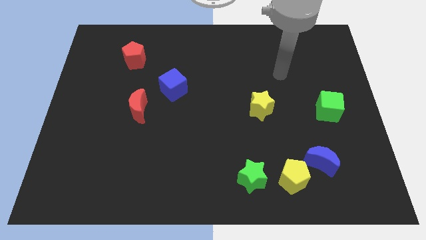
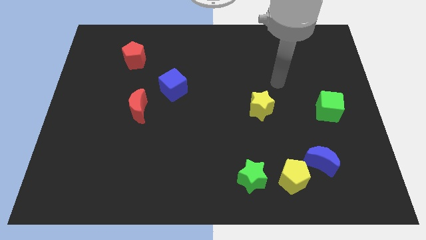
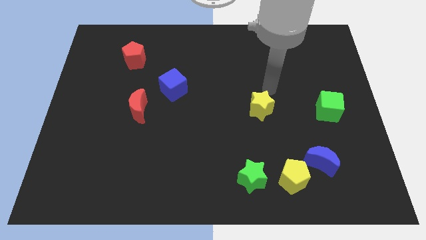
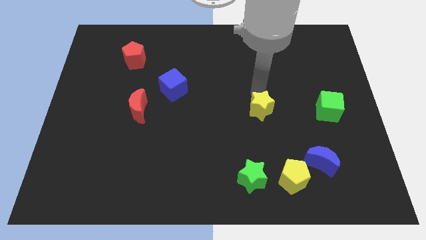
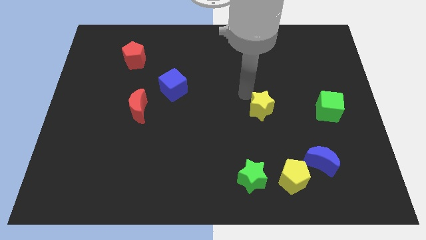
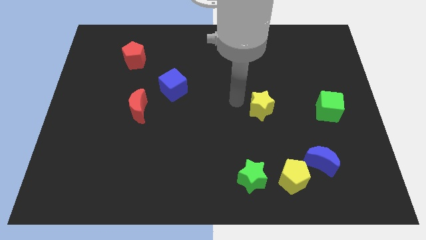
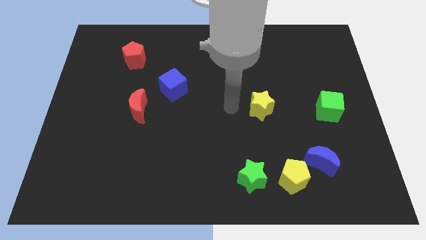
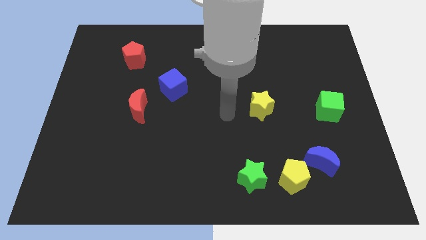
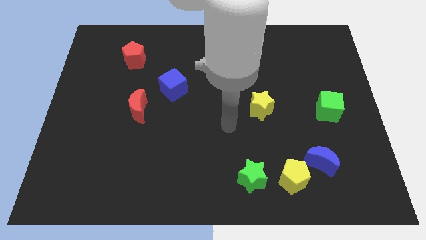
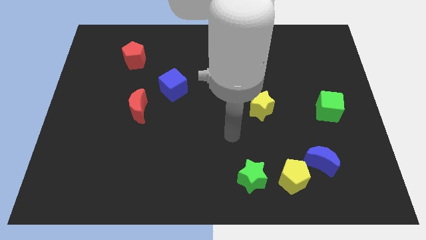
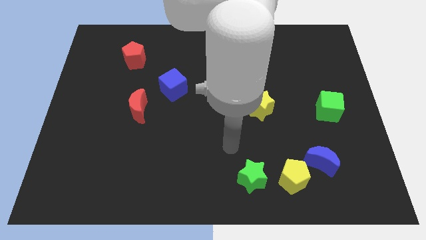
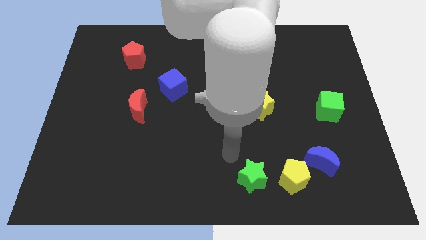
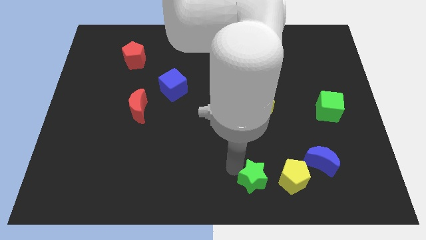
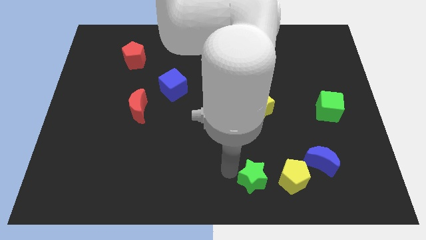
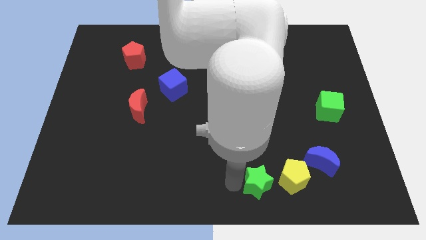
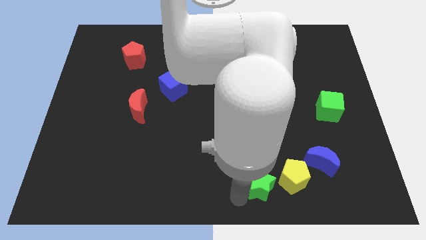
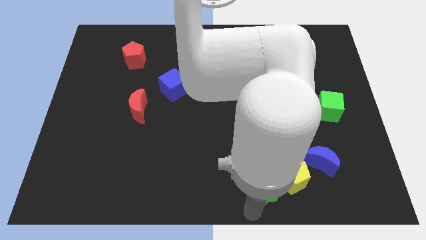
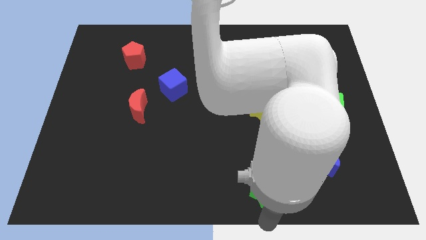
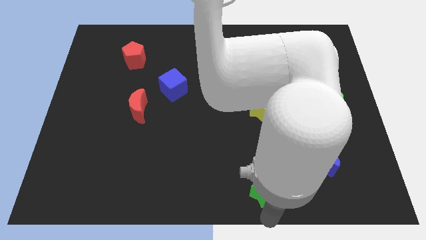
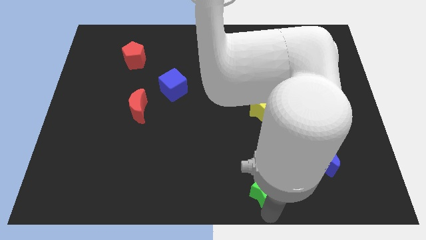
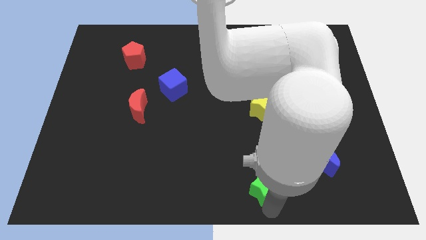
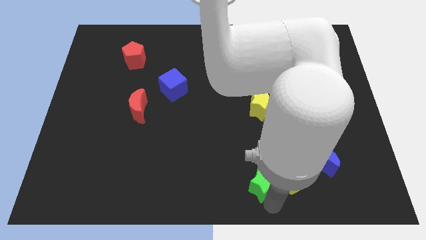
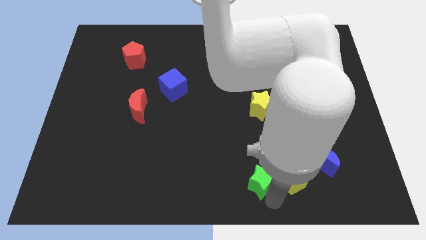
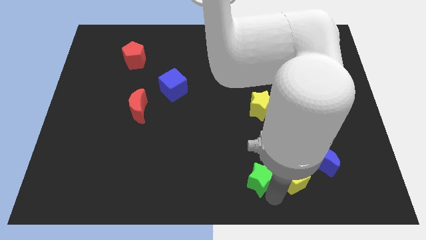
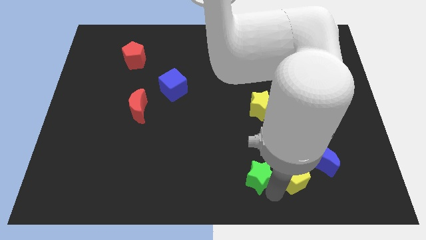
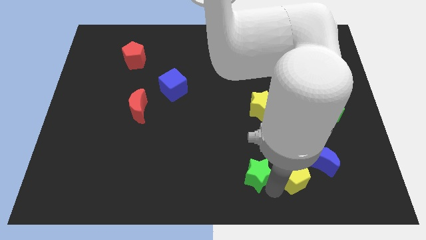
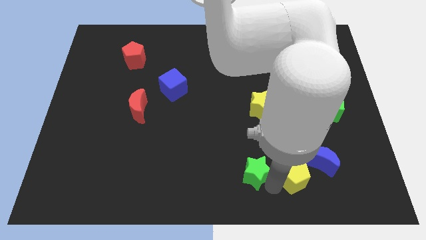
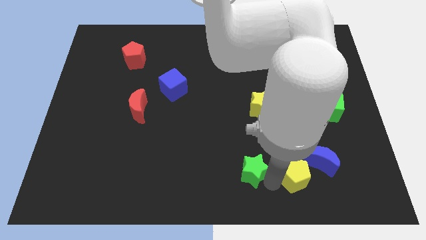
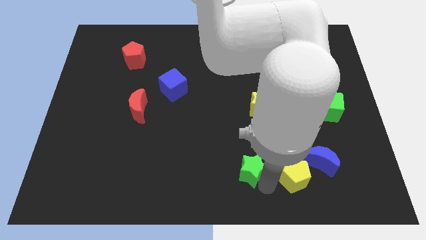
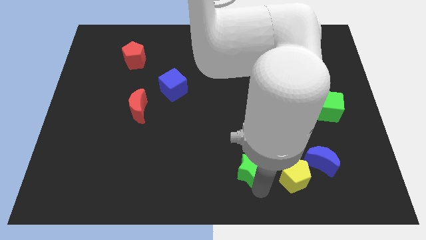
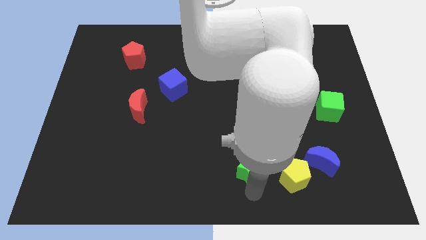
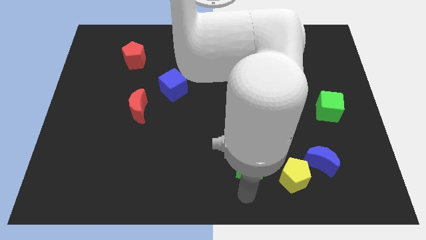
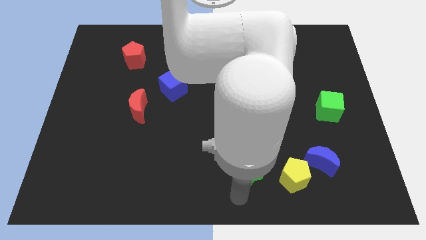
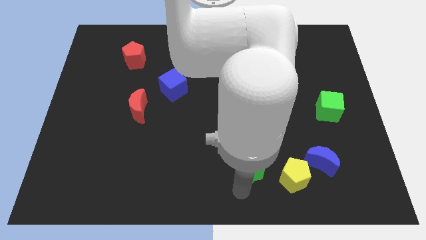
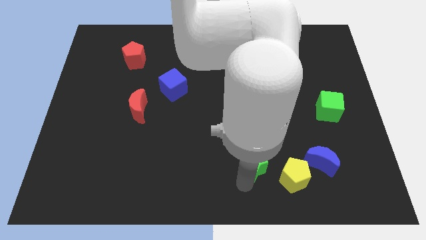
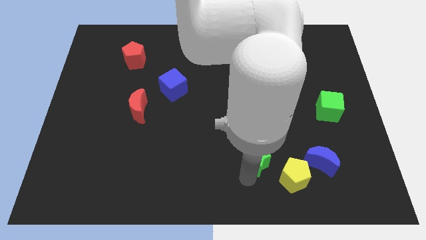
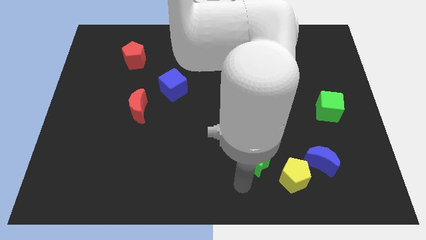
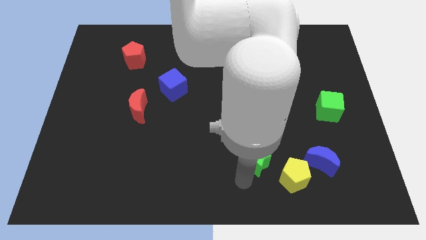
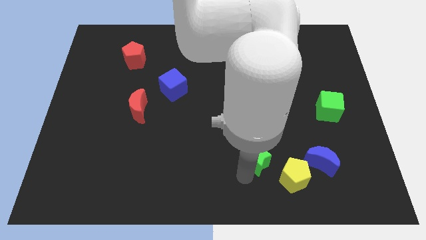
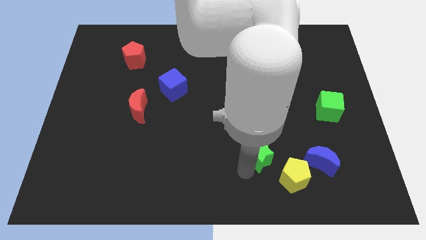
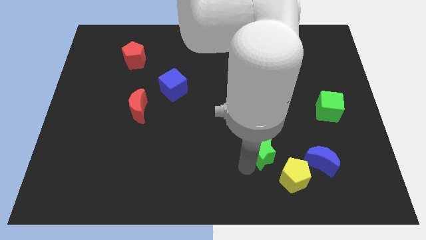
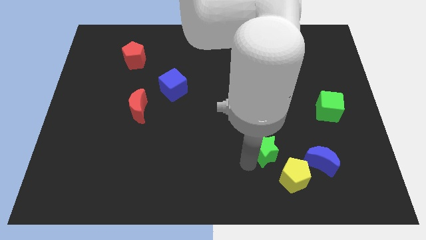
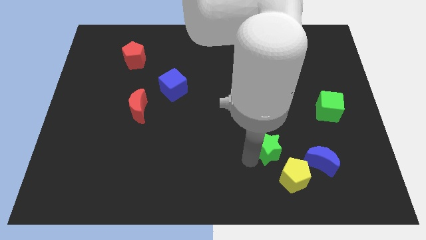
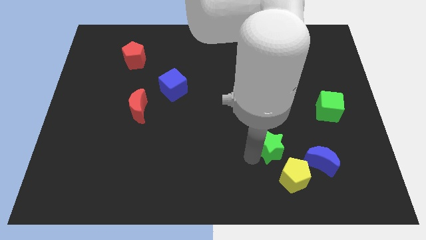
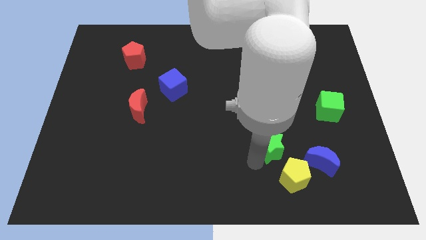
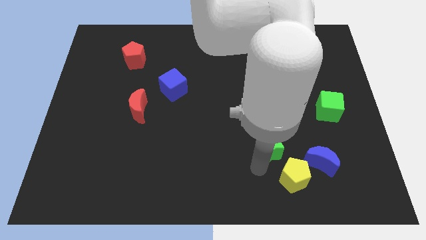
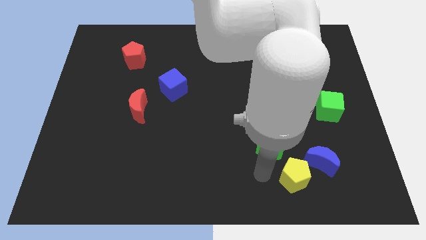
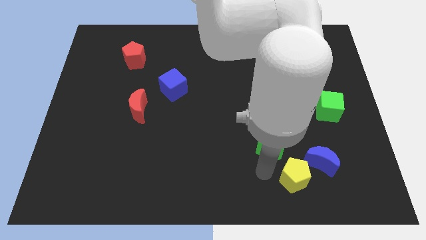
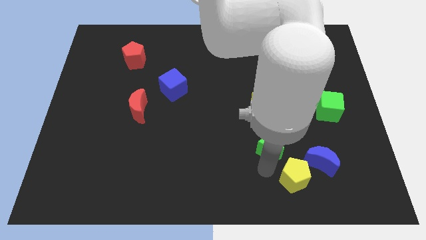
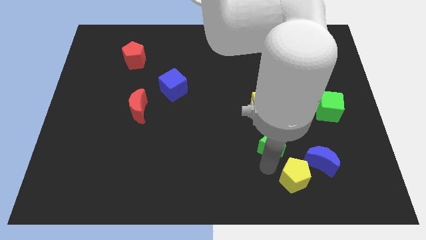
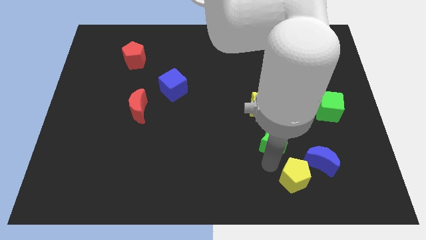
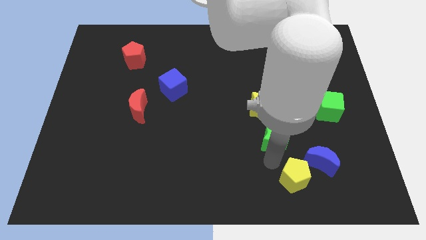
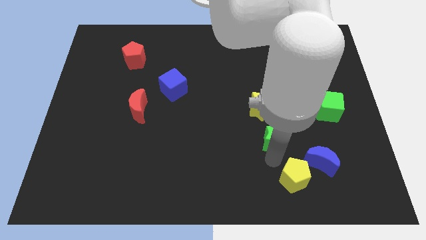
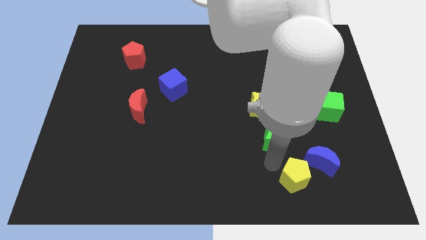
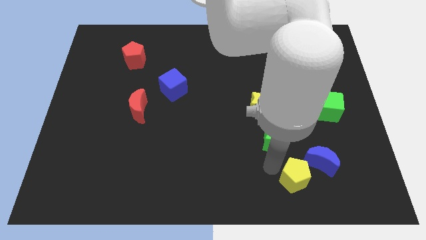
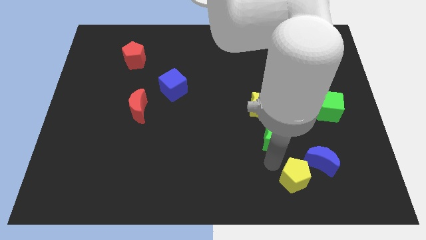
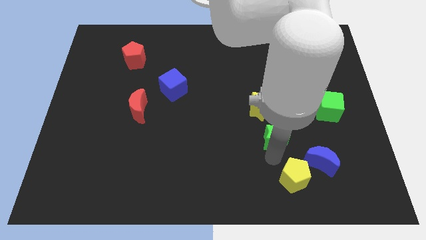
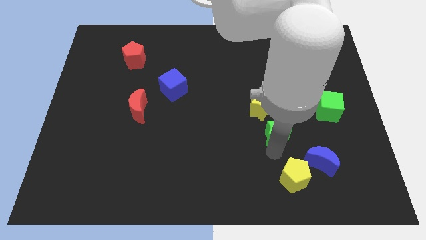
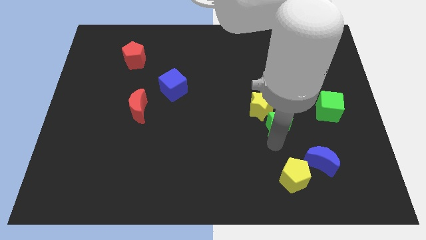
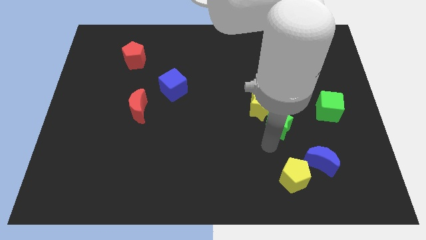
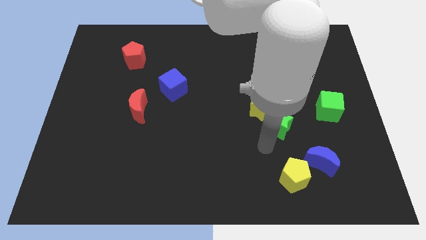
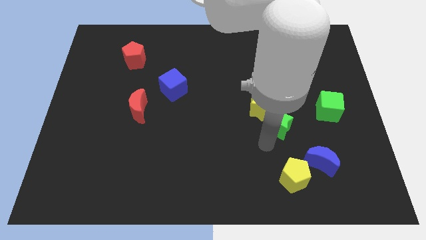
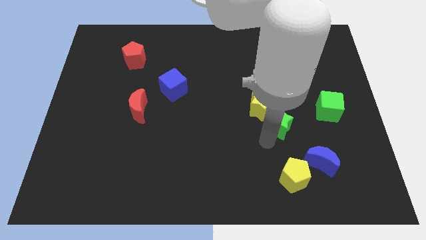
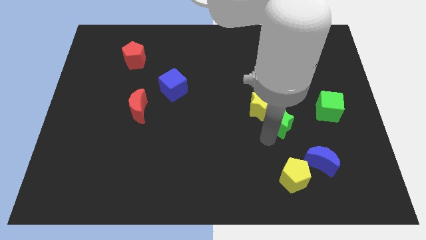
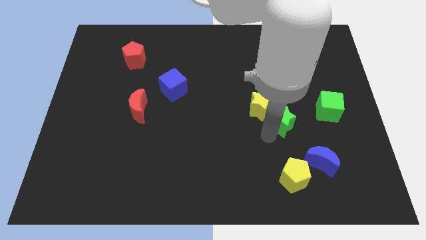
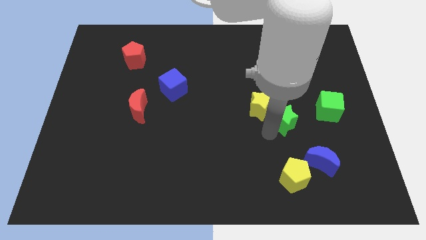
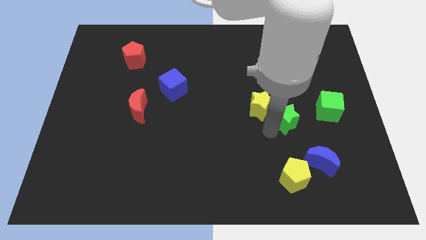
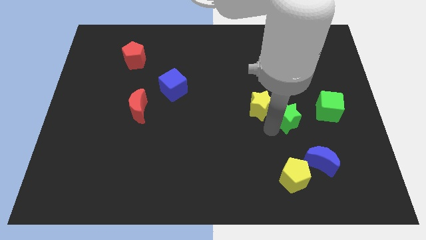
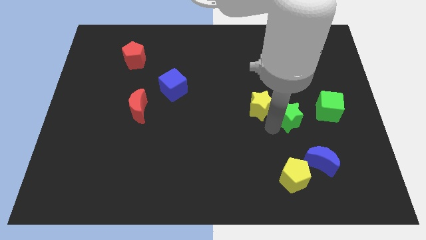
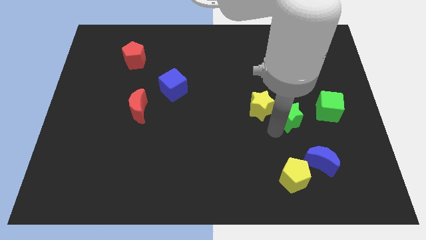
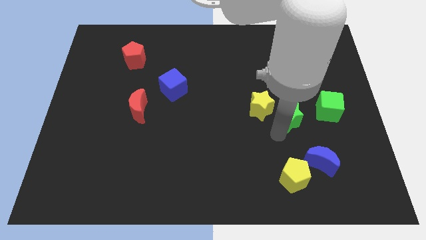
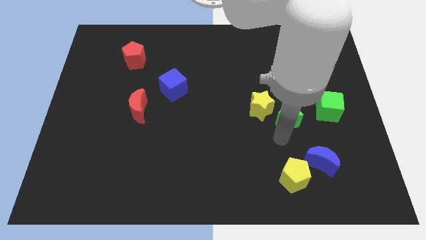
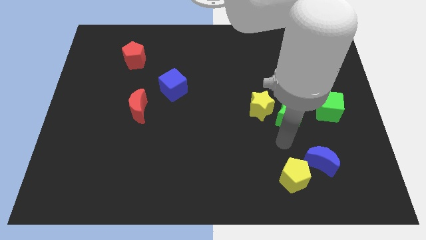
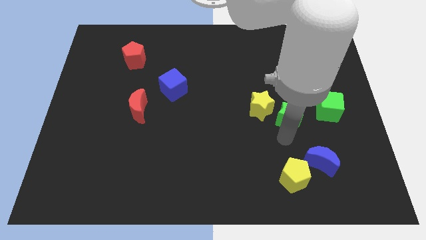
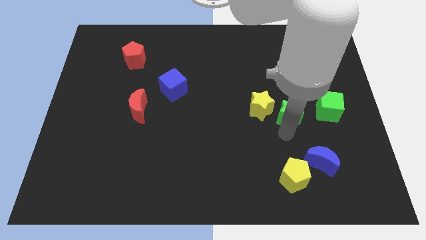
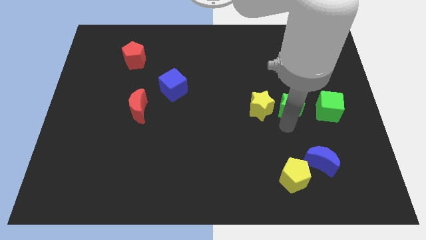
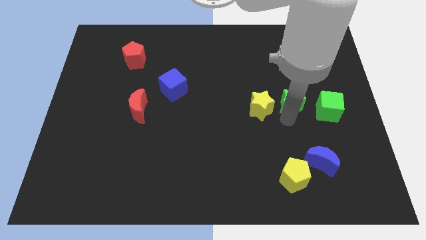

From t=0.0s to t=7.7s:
push the green star diagonally up and to the left of the green cube

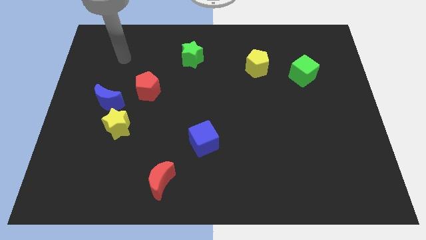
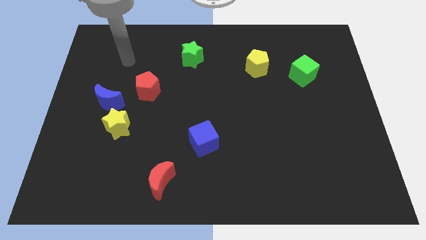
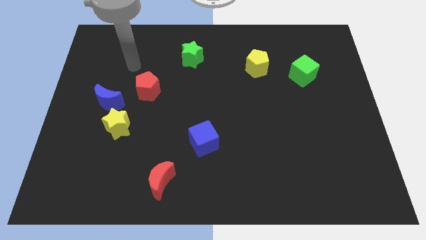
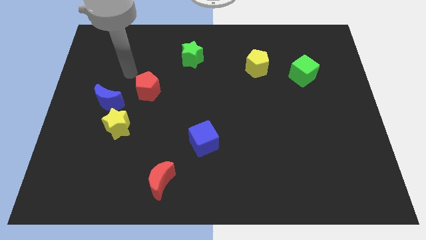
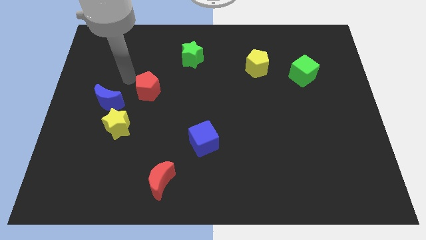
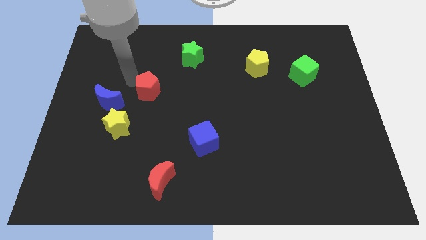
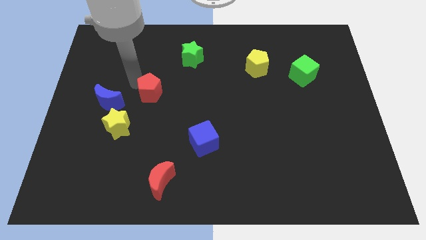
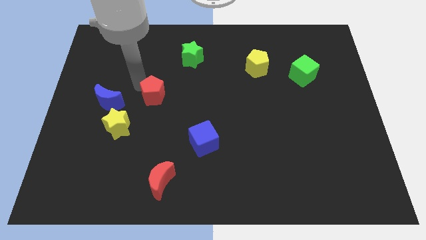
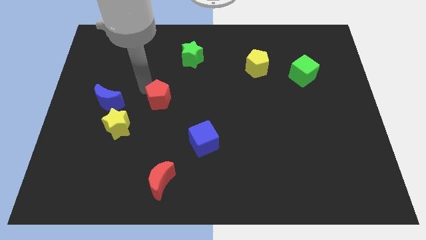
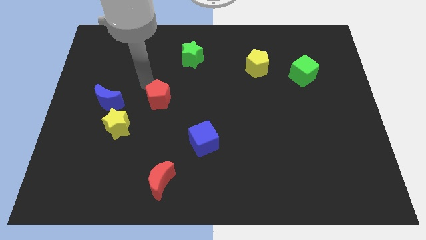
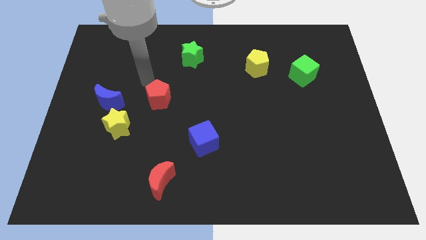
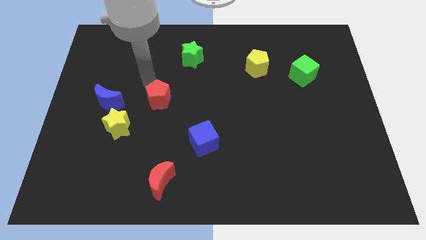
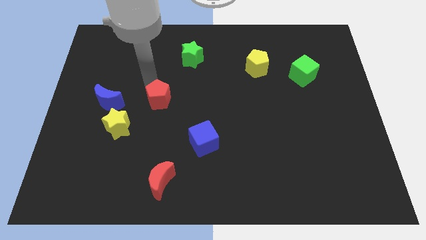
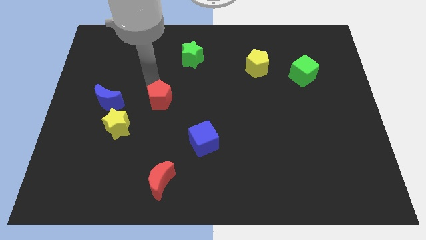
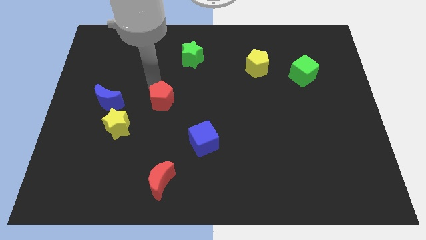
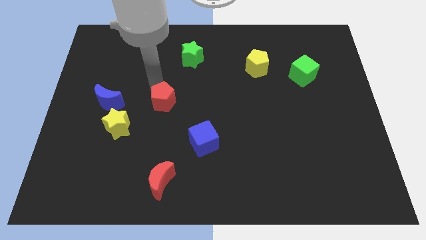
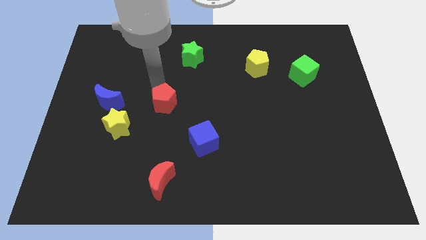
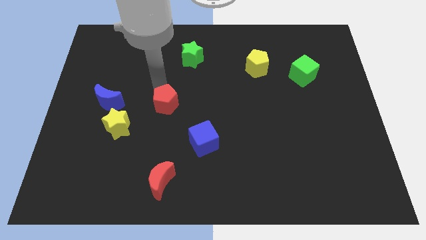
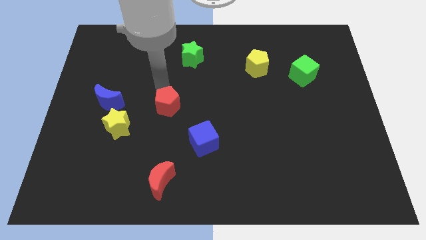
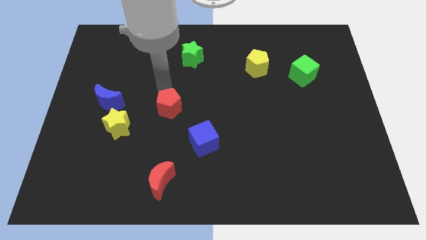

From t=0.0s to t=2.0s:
push the red pentagon to the top left of the blue cube
